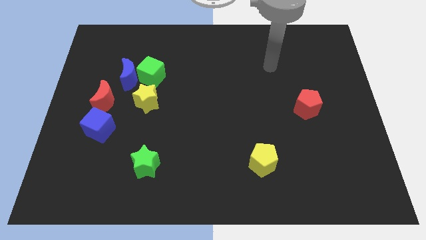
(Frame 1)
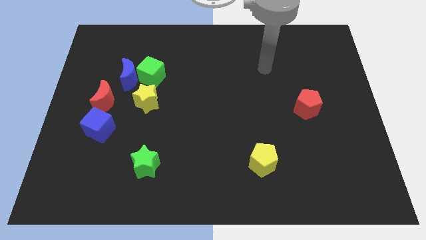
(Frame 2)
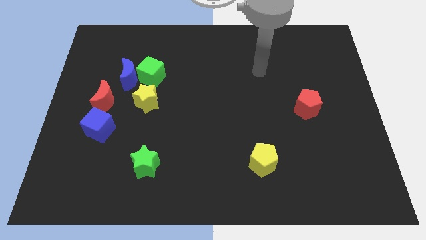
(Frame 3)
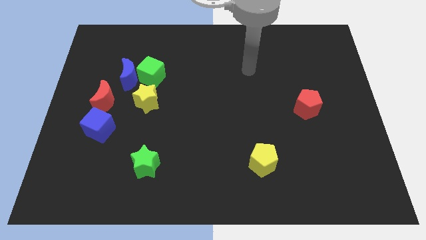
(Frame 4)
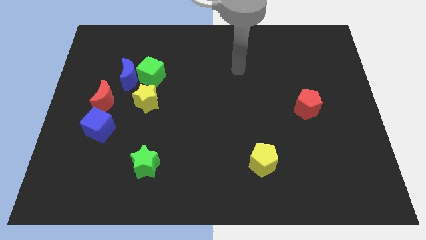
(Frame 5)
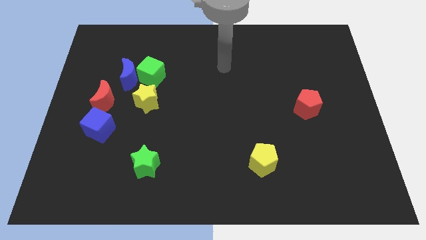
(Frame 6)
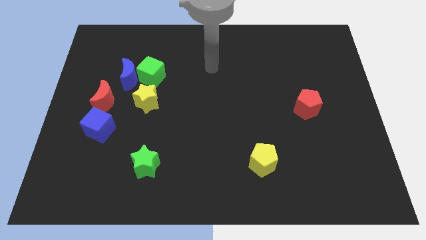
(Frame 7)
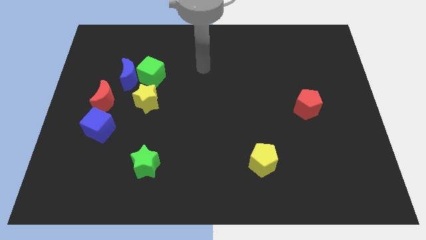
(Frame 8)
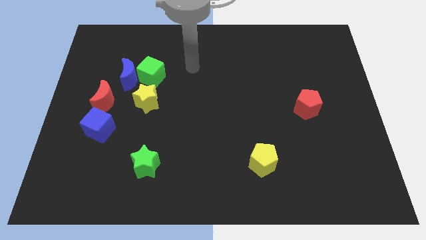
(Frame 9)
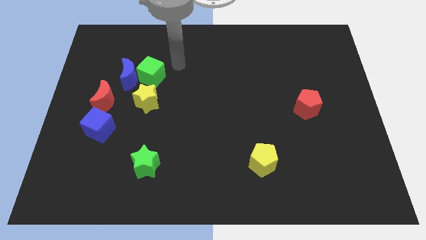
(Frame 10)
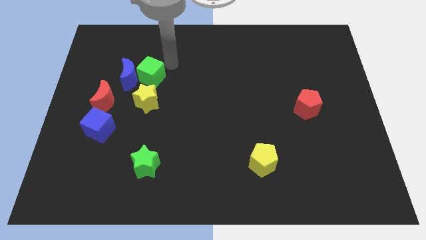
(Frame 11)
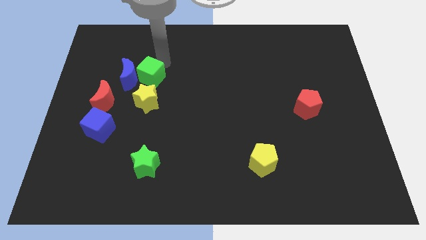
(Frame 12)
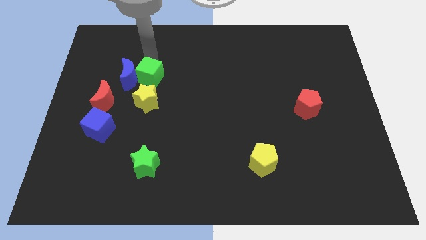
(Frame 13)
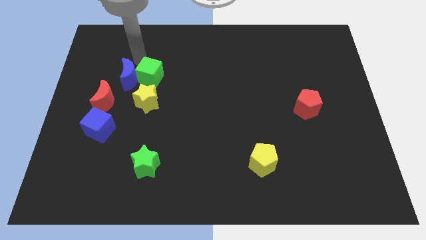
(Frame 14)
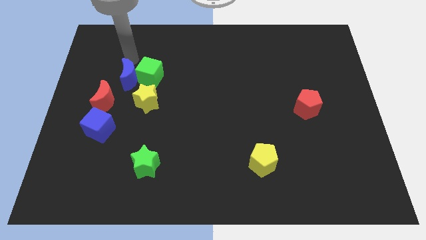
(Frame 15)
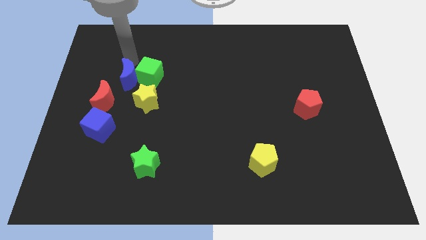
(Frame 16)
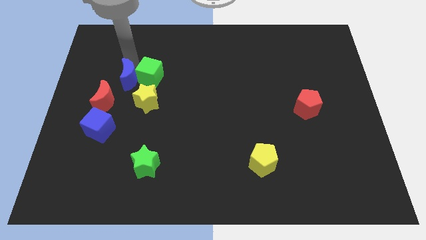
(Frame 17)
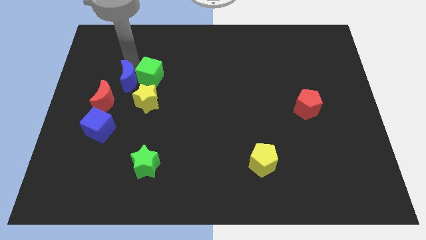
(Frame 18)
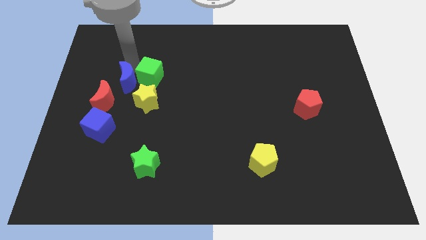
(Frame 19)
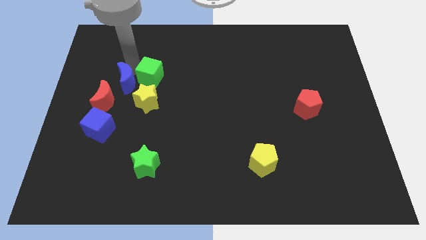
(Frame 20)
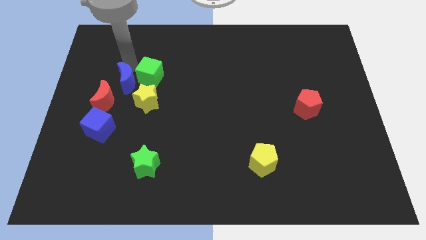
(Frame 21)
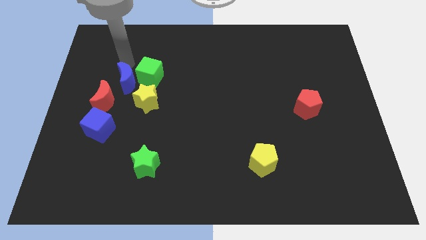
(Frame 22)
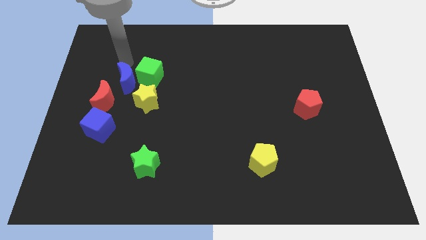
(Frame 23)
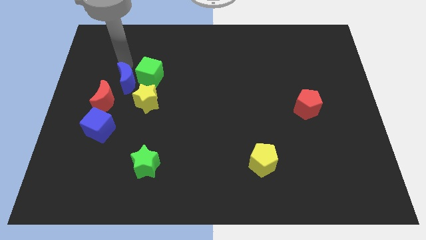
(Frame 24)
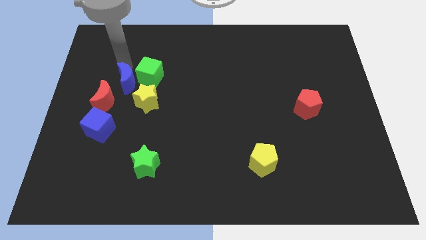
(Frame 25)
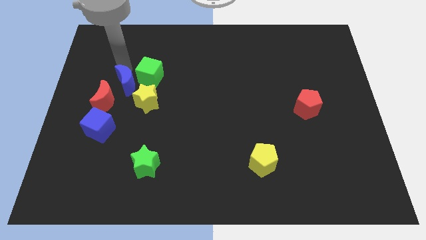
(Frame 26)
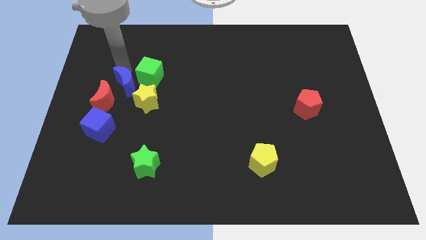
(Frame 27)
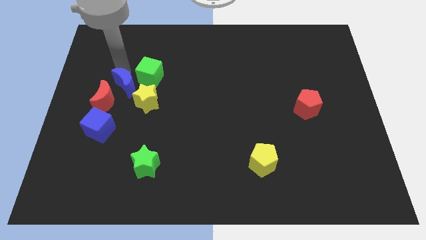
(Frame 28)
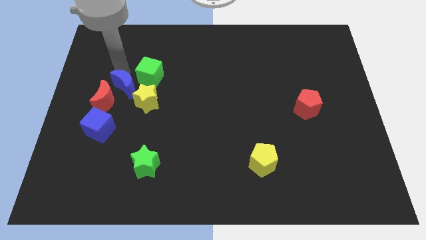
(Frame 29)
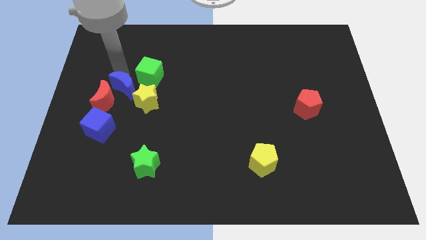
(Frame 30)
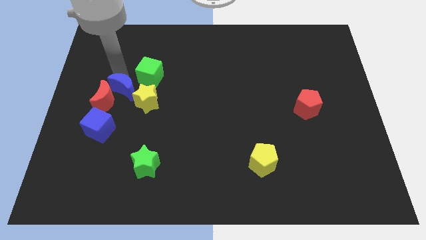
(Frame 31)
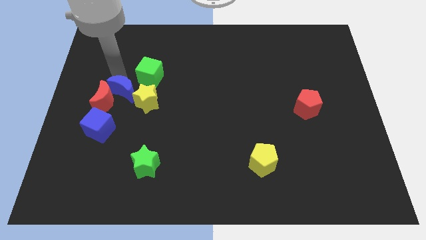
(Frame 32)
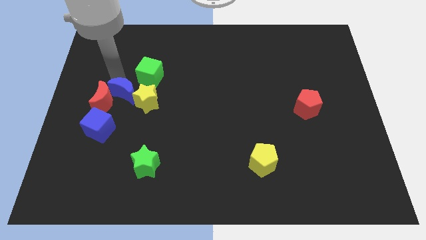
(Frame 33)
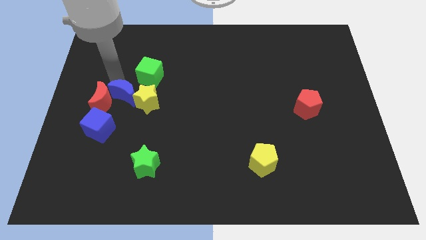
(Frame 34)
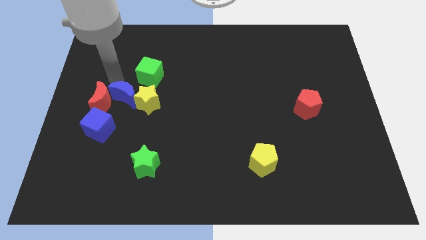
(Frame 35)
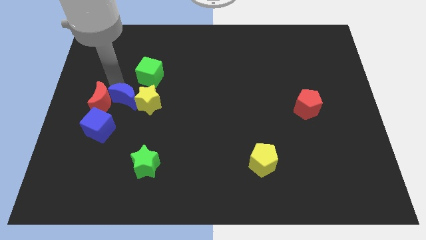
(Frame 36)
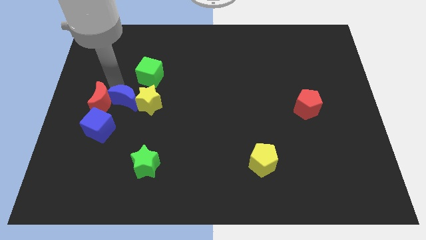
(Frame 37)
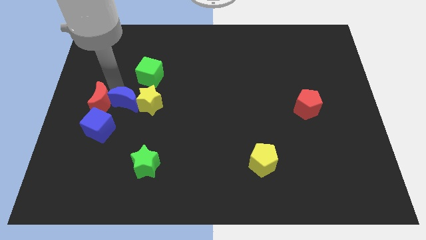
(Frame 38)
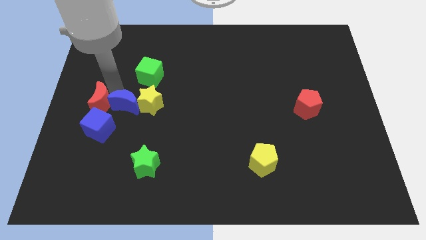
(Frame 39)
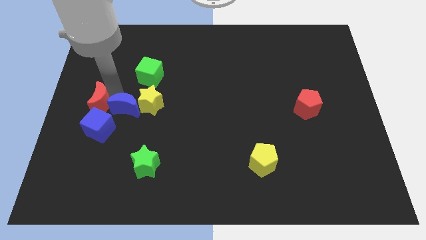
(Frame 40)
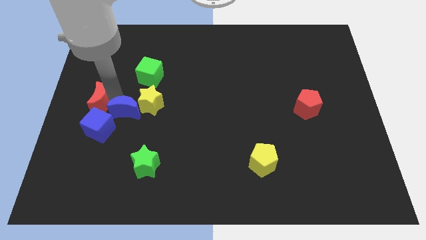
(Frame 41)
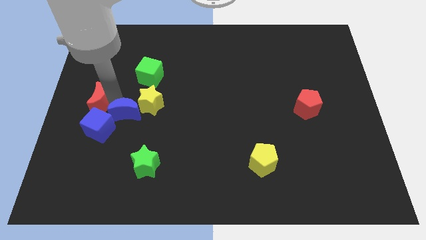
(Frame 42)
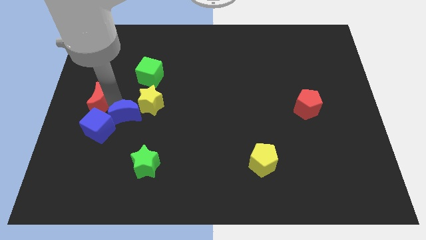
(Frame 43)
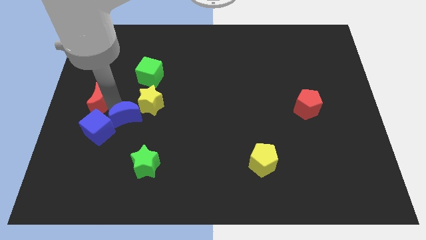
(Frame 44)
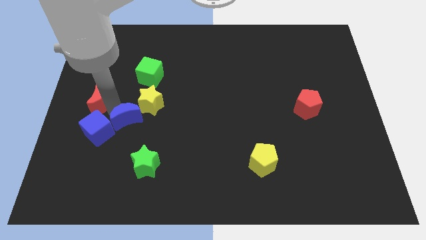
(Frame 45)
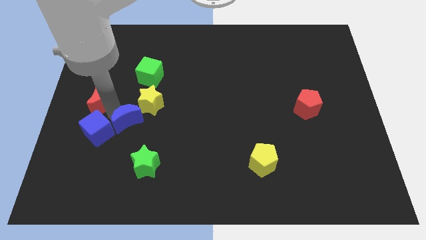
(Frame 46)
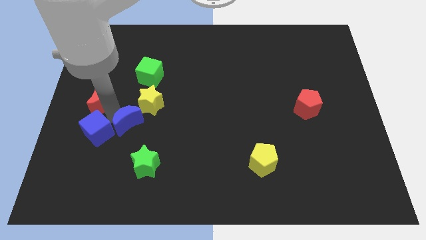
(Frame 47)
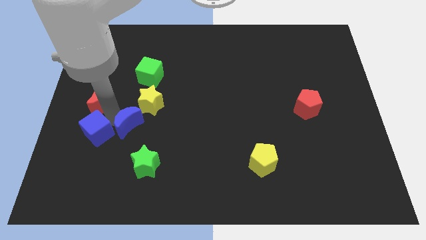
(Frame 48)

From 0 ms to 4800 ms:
slide the blue moon above the green star

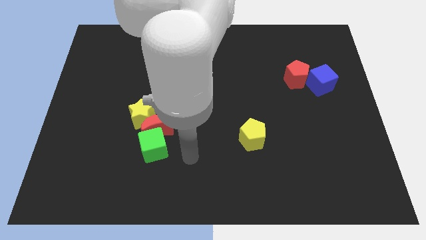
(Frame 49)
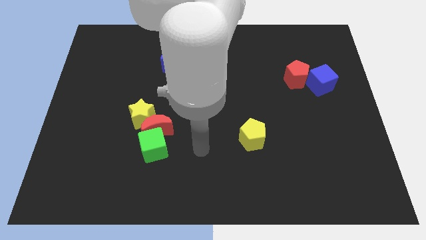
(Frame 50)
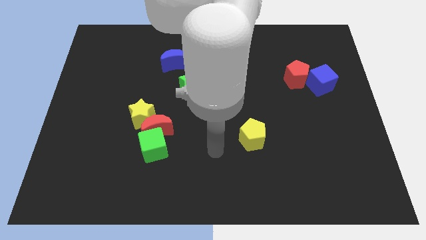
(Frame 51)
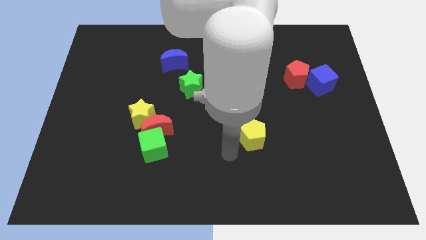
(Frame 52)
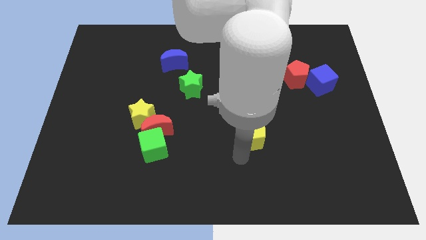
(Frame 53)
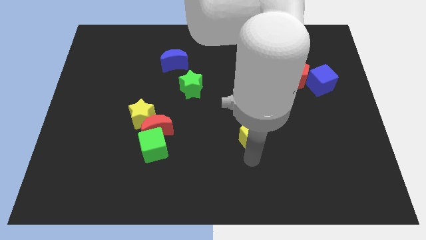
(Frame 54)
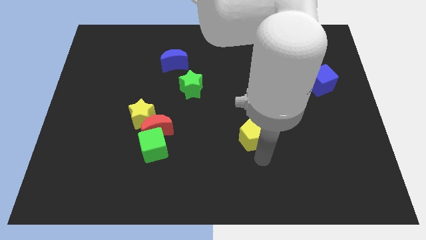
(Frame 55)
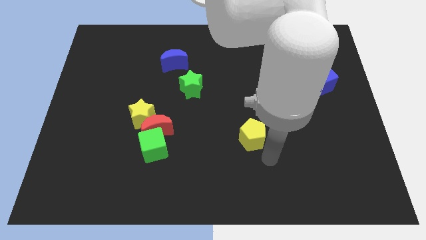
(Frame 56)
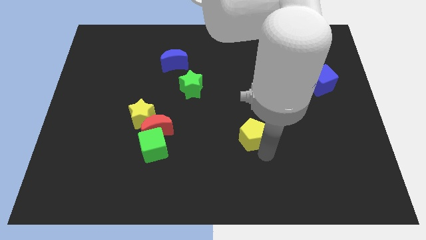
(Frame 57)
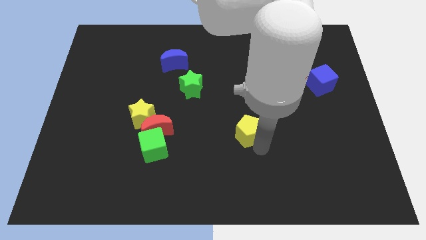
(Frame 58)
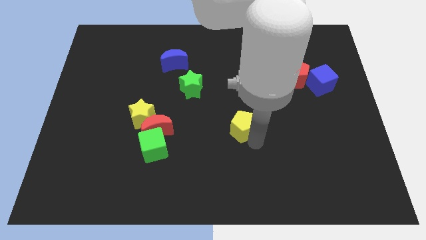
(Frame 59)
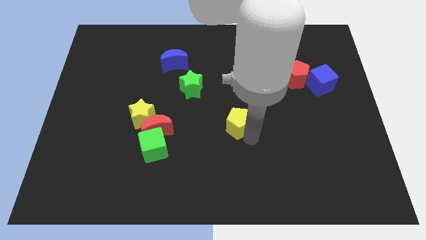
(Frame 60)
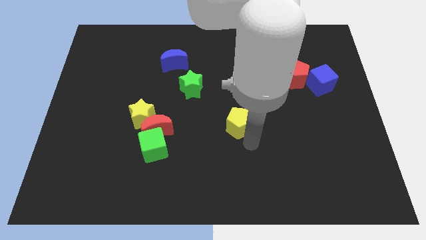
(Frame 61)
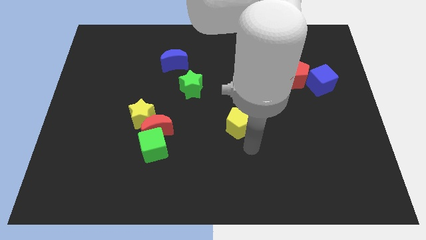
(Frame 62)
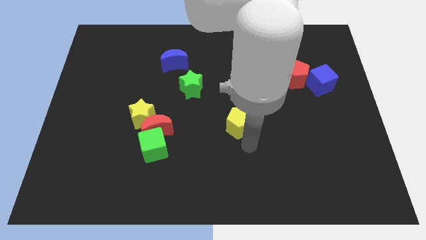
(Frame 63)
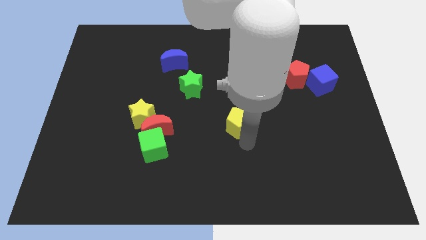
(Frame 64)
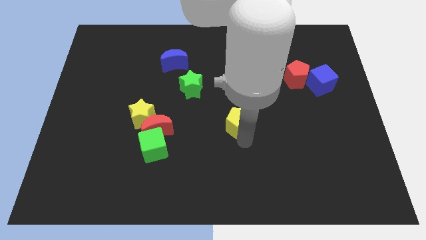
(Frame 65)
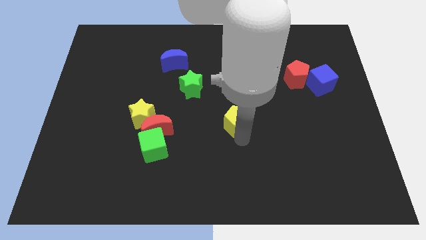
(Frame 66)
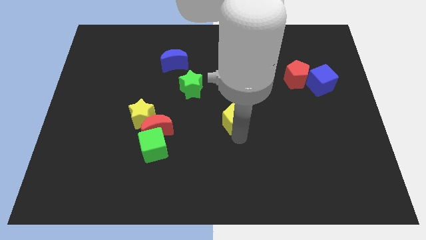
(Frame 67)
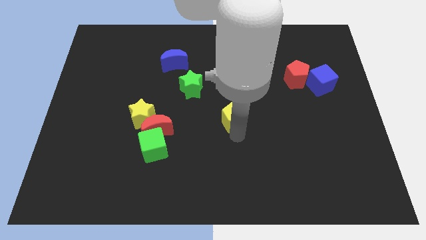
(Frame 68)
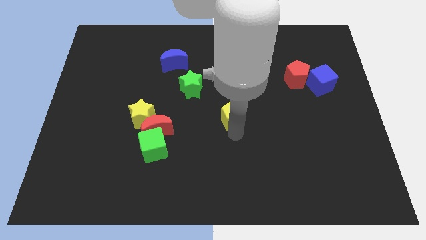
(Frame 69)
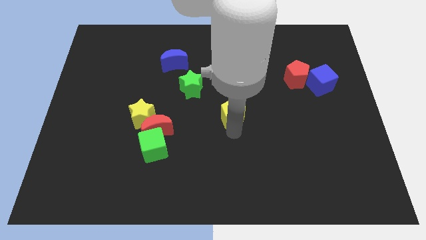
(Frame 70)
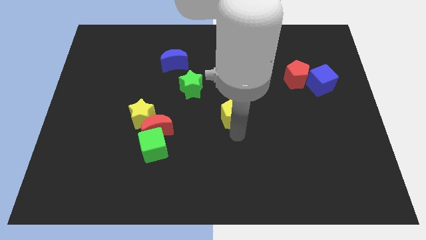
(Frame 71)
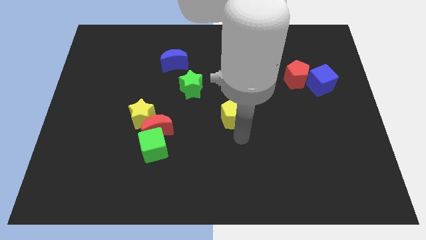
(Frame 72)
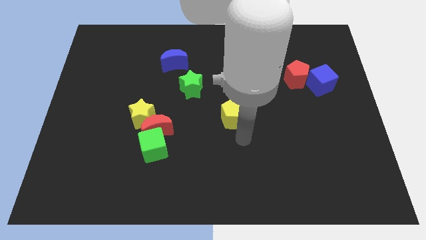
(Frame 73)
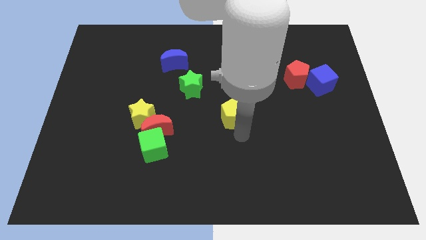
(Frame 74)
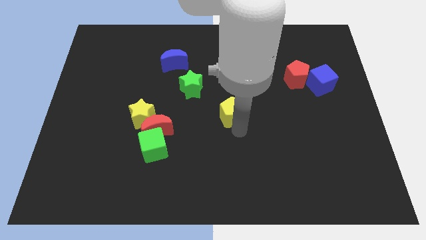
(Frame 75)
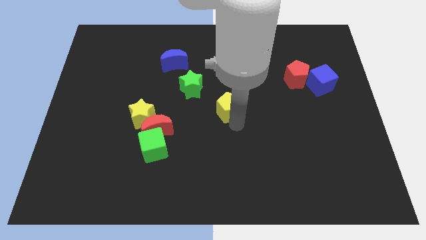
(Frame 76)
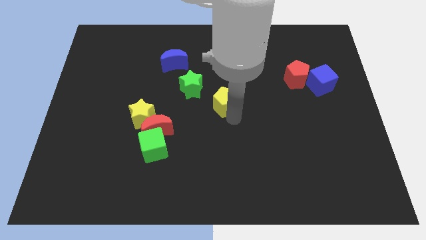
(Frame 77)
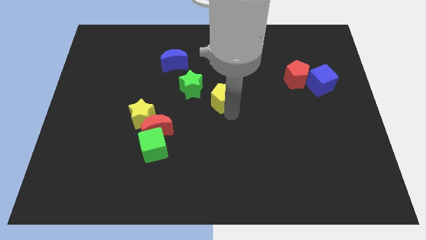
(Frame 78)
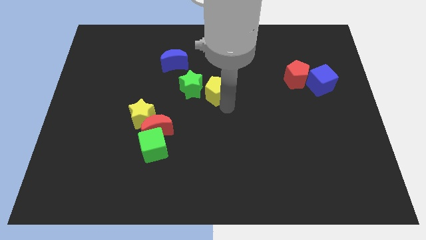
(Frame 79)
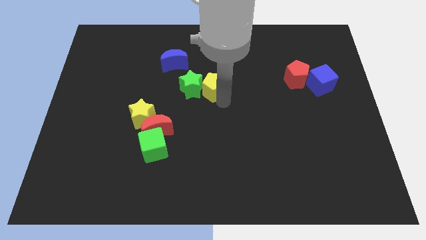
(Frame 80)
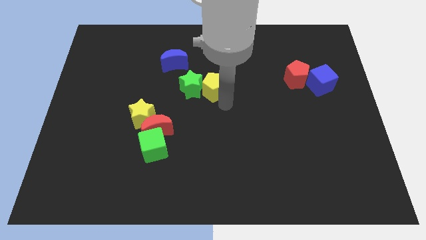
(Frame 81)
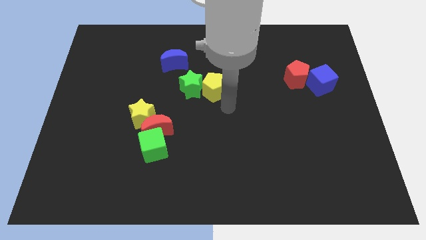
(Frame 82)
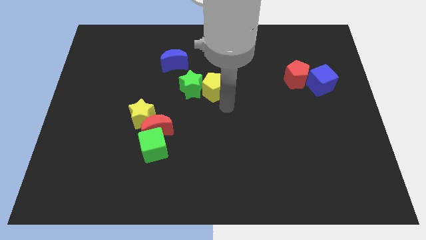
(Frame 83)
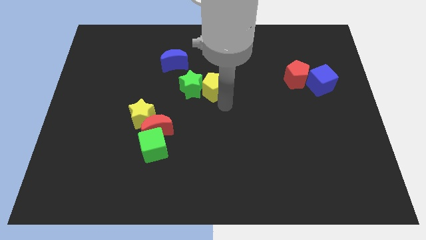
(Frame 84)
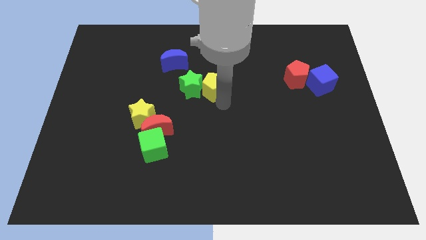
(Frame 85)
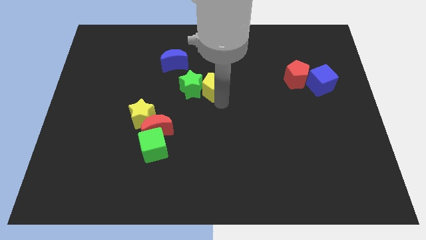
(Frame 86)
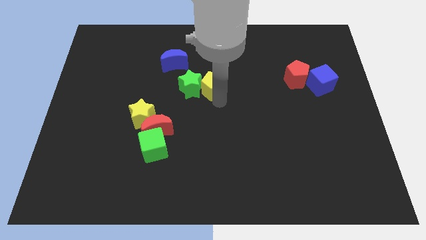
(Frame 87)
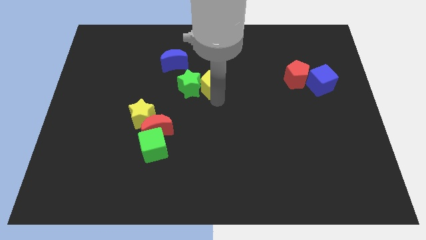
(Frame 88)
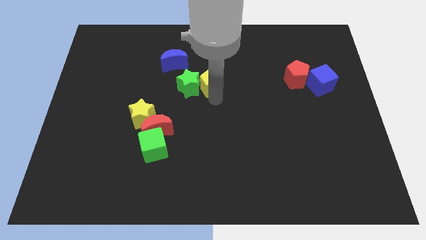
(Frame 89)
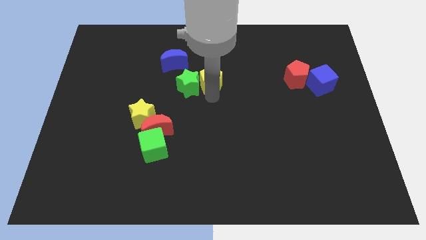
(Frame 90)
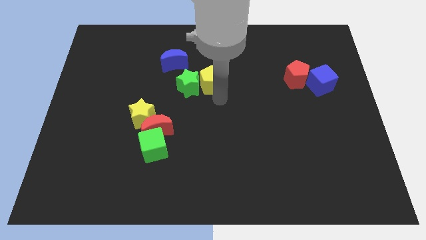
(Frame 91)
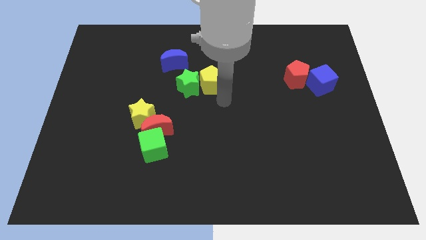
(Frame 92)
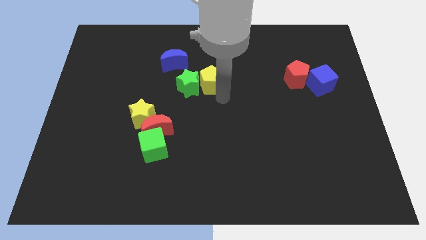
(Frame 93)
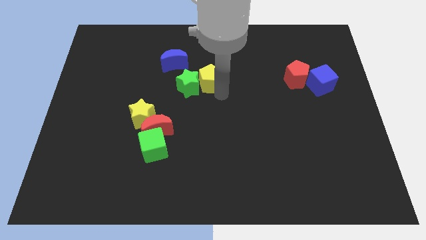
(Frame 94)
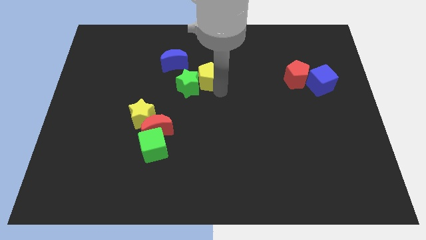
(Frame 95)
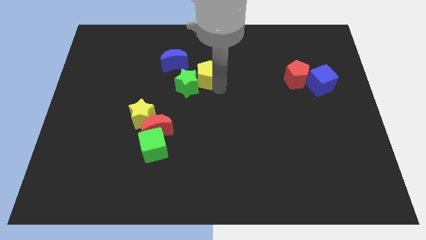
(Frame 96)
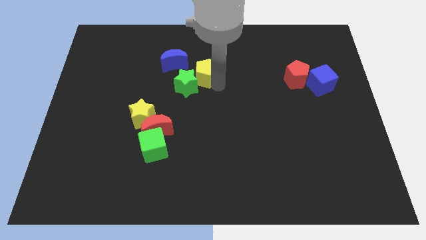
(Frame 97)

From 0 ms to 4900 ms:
put the yellow pentagon above the green star
